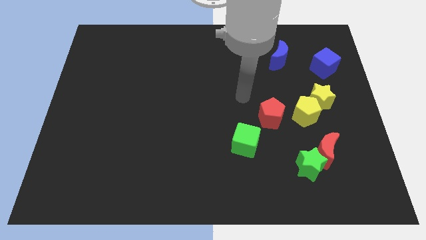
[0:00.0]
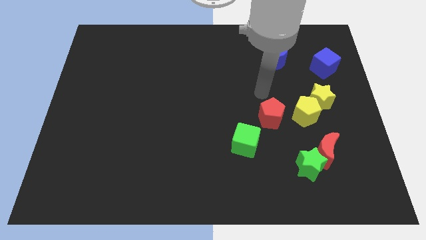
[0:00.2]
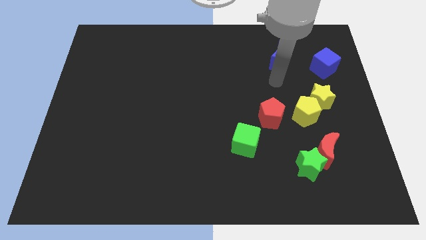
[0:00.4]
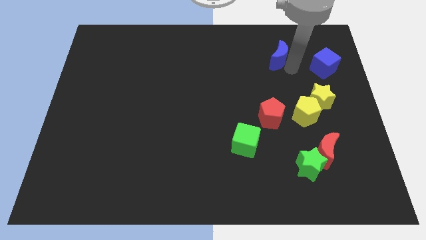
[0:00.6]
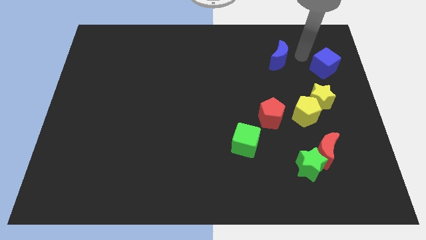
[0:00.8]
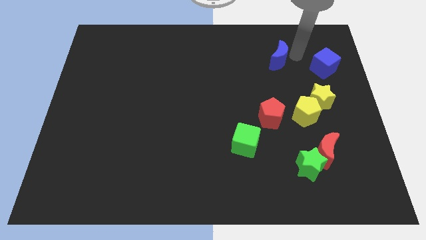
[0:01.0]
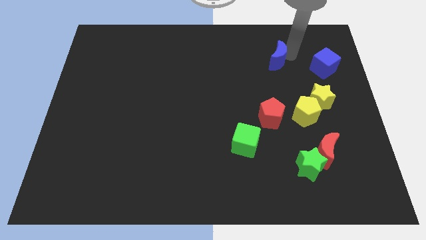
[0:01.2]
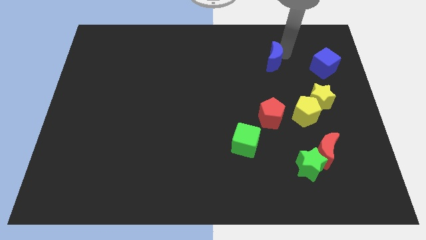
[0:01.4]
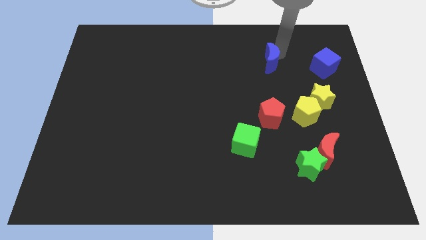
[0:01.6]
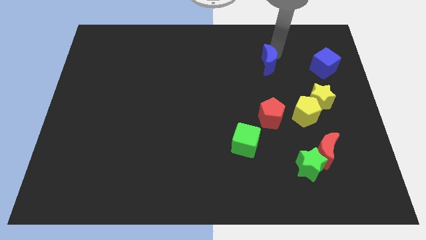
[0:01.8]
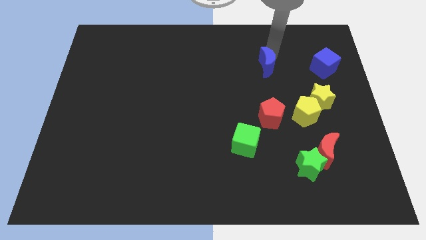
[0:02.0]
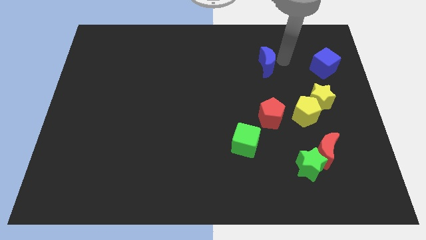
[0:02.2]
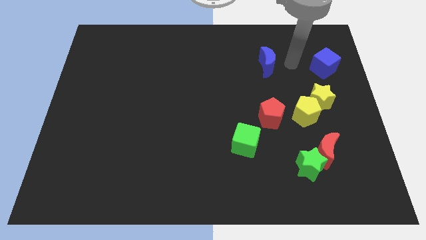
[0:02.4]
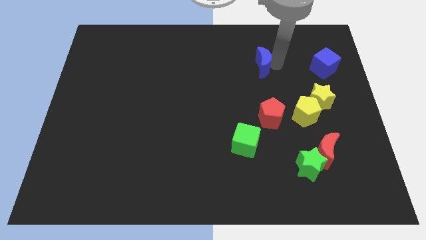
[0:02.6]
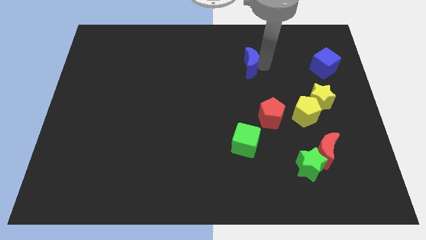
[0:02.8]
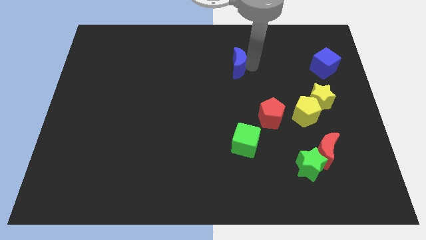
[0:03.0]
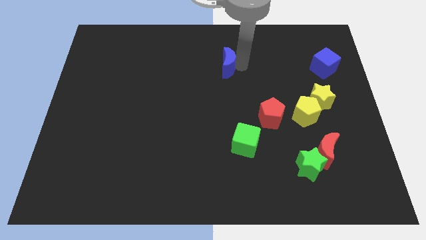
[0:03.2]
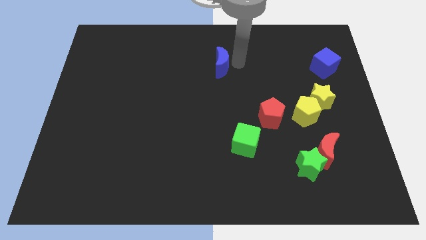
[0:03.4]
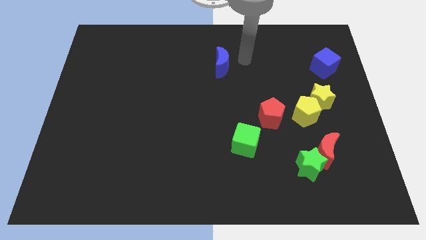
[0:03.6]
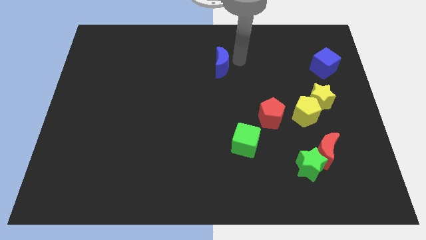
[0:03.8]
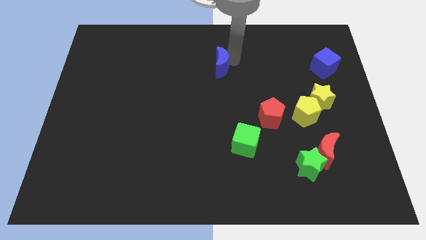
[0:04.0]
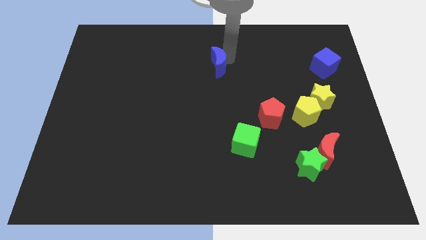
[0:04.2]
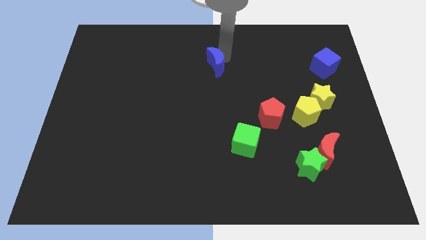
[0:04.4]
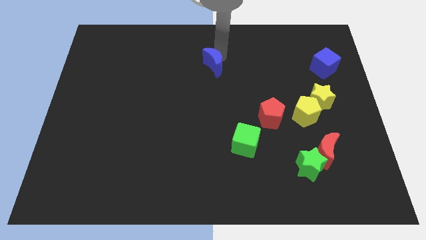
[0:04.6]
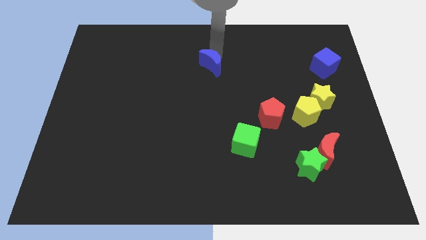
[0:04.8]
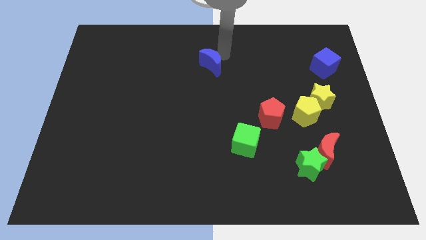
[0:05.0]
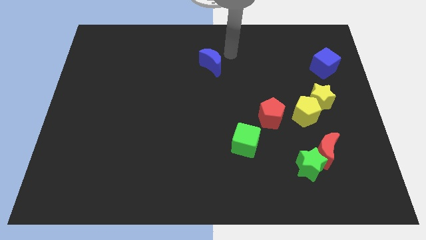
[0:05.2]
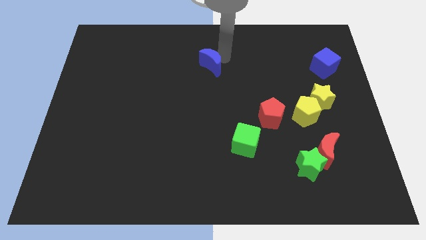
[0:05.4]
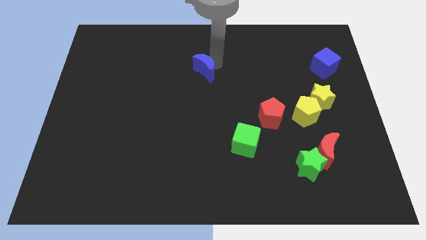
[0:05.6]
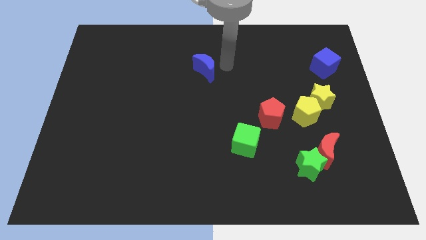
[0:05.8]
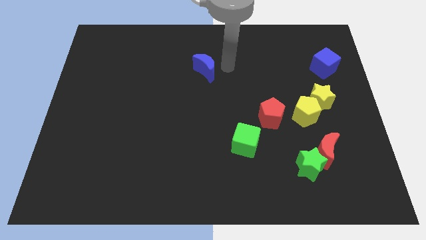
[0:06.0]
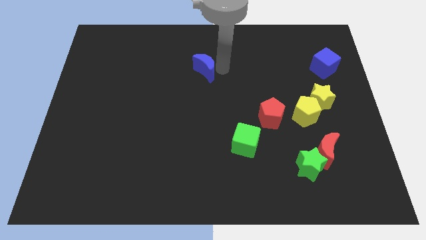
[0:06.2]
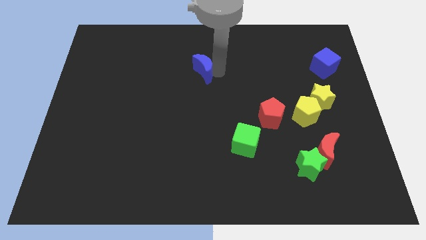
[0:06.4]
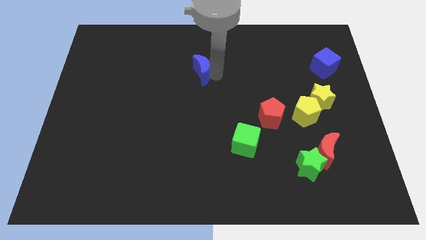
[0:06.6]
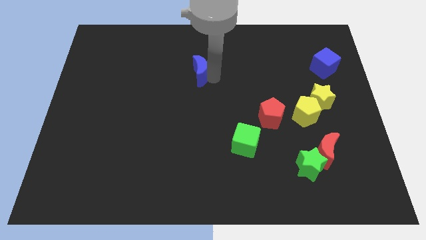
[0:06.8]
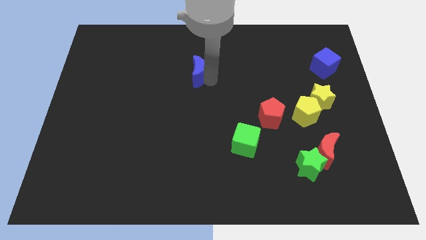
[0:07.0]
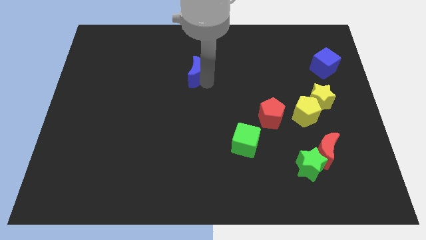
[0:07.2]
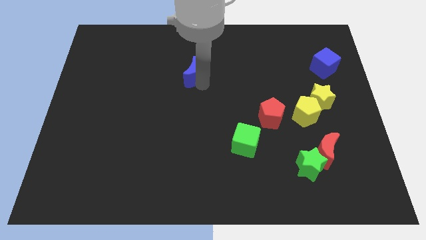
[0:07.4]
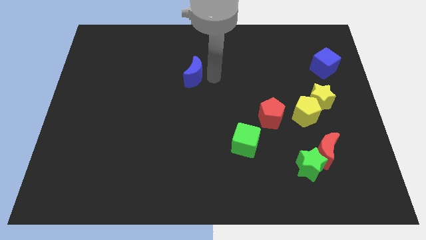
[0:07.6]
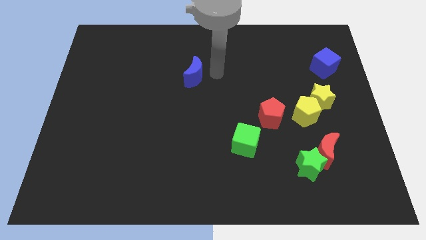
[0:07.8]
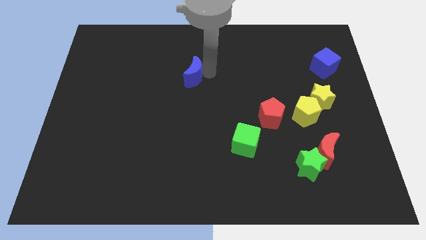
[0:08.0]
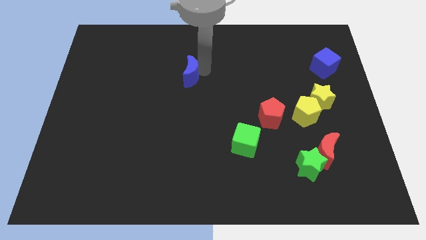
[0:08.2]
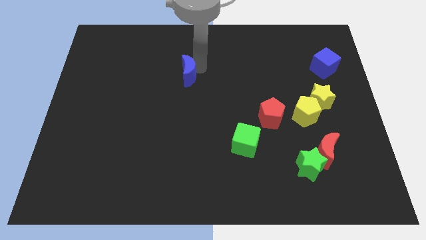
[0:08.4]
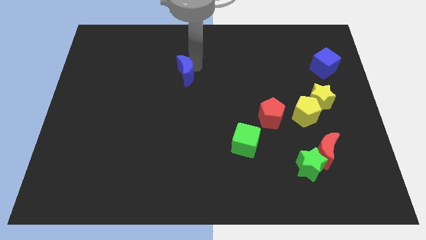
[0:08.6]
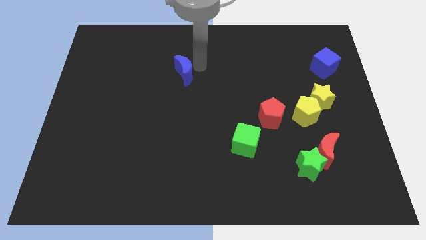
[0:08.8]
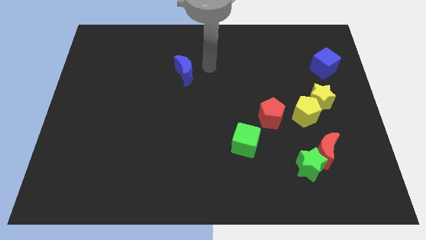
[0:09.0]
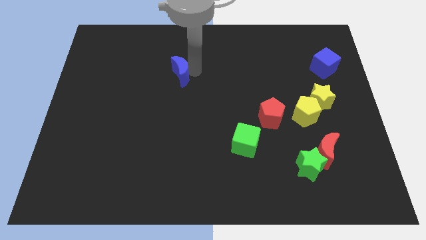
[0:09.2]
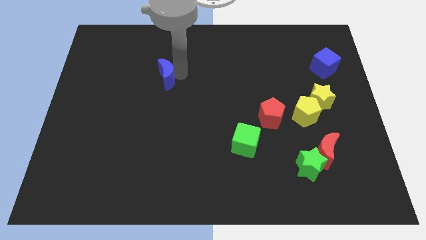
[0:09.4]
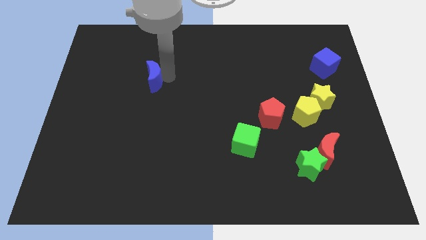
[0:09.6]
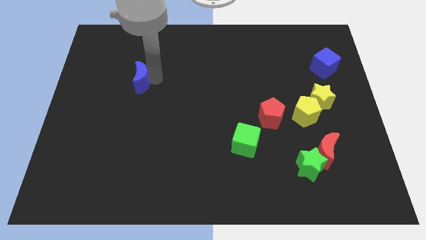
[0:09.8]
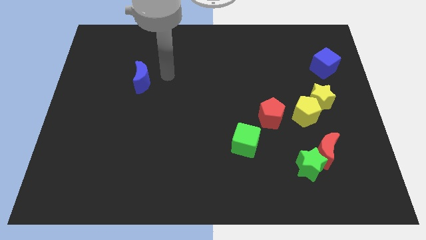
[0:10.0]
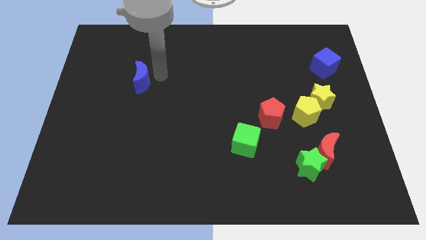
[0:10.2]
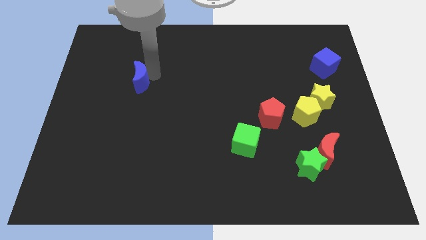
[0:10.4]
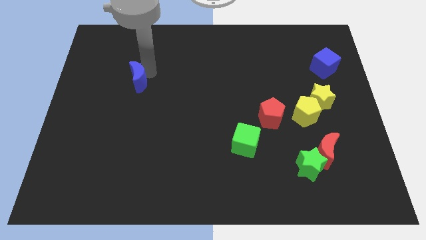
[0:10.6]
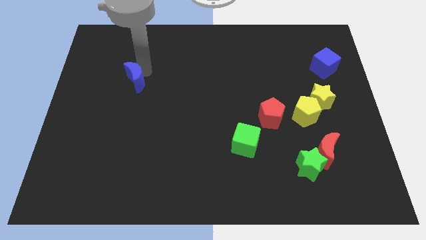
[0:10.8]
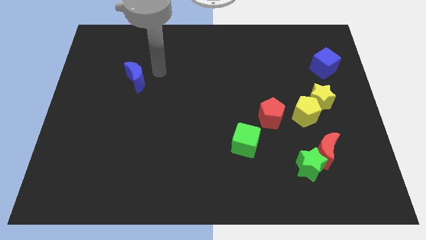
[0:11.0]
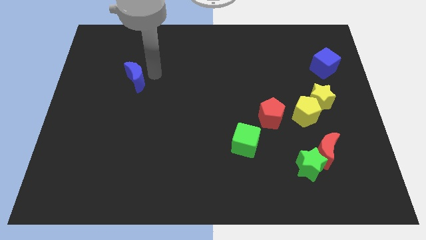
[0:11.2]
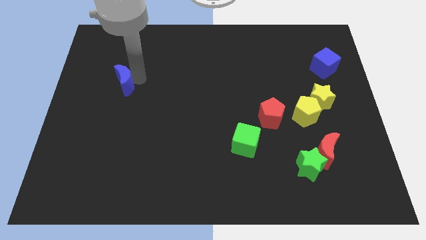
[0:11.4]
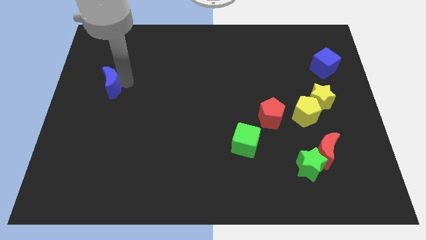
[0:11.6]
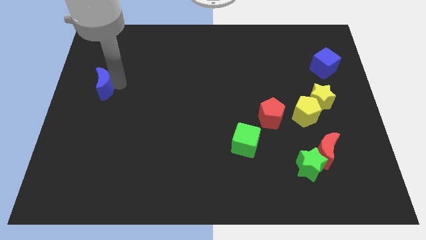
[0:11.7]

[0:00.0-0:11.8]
push the blue moon to the center left
